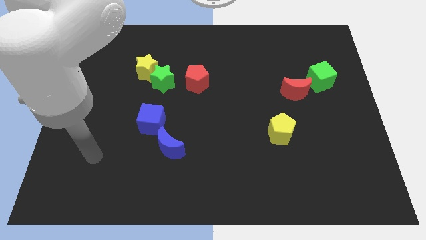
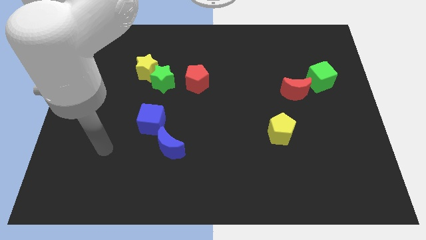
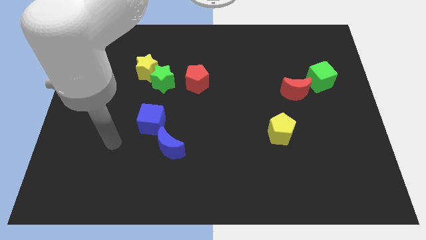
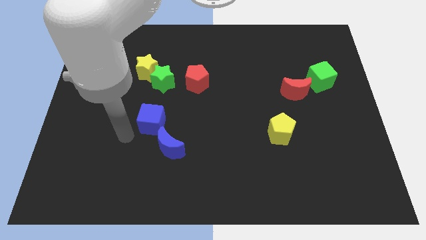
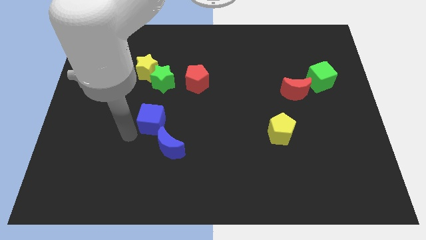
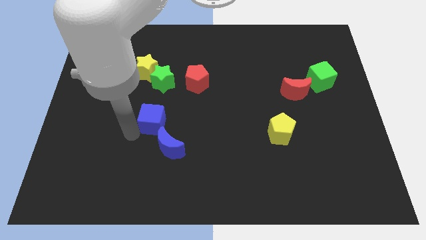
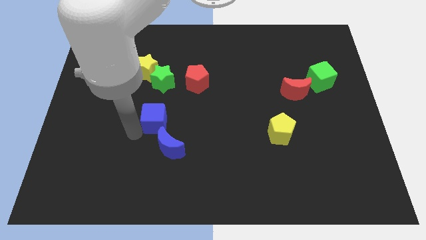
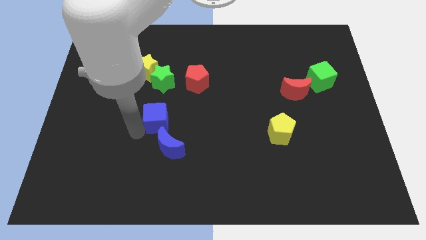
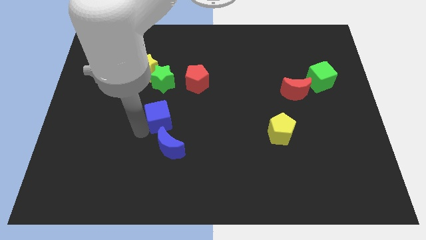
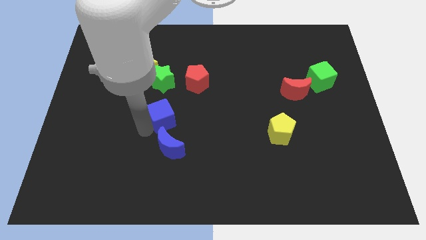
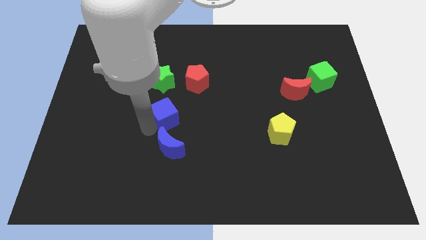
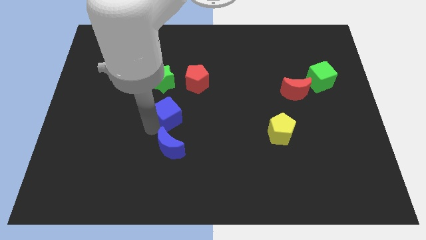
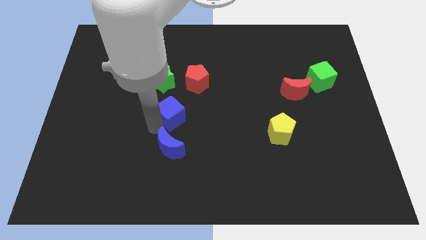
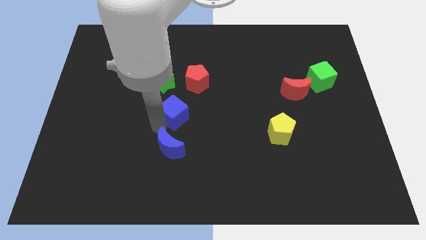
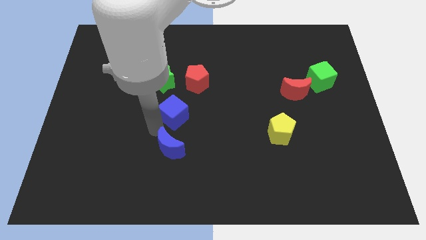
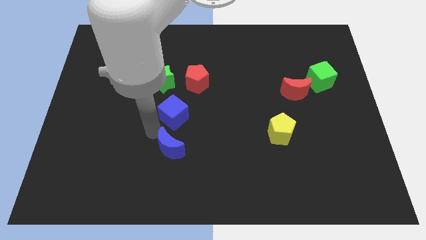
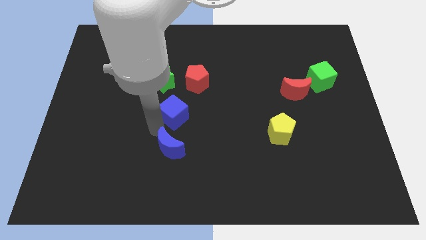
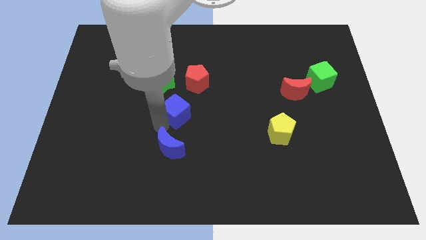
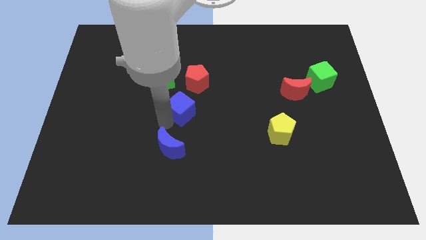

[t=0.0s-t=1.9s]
push the blue cube up and then right somewhat

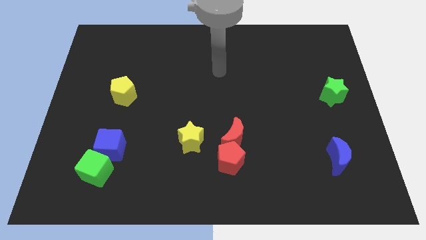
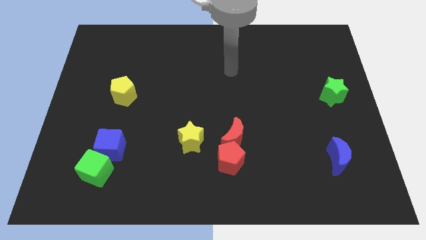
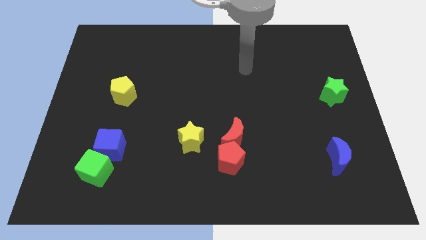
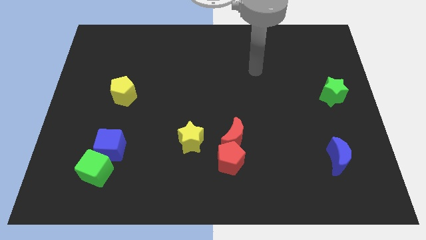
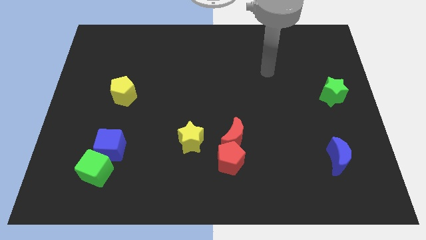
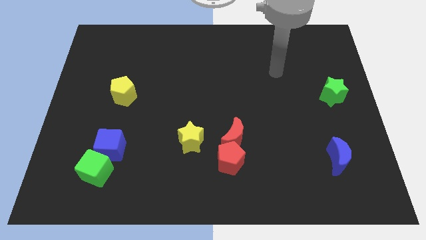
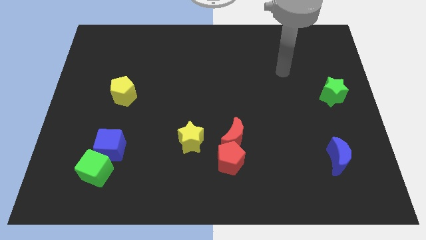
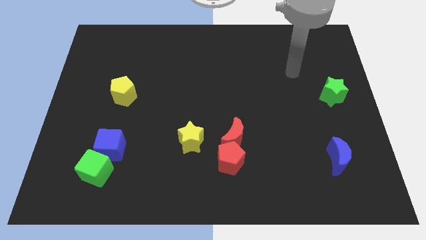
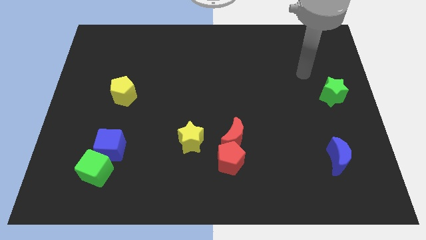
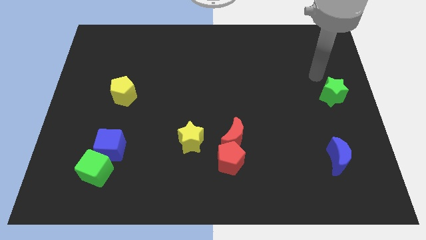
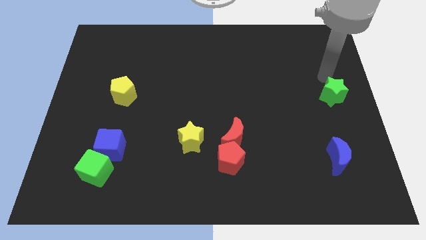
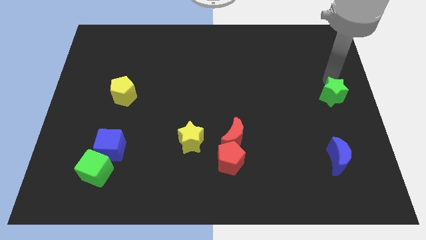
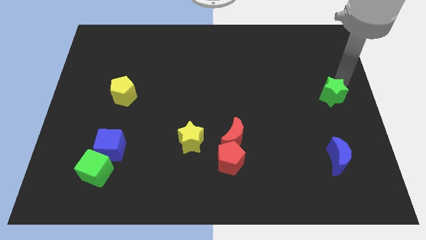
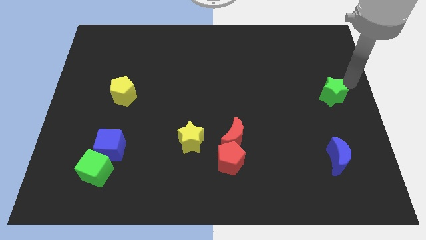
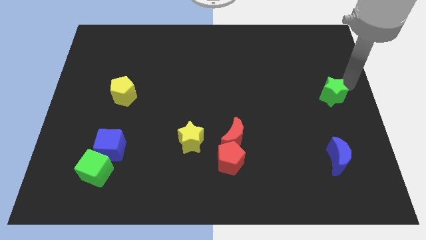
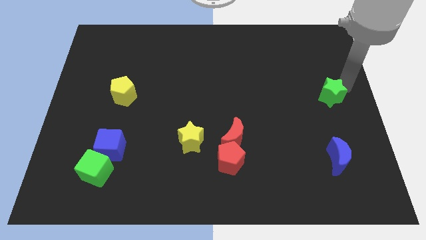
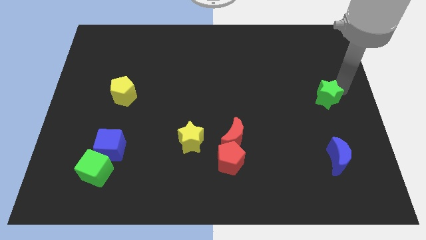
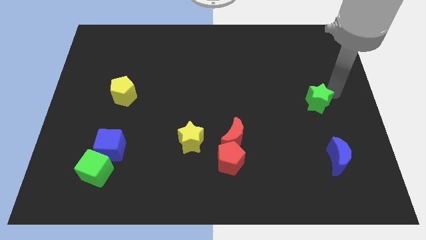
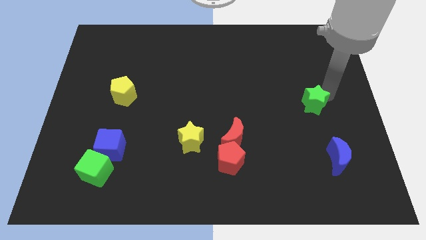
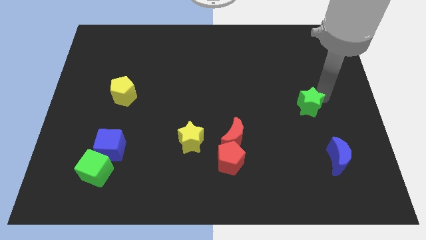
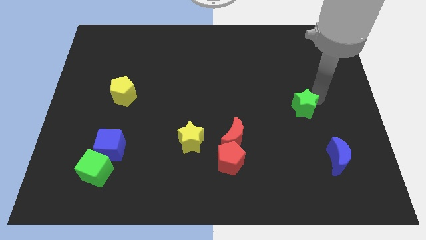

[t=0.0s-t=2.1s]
move the green star down and to the left a bit

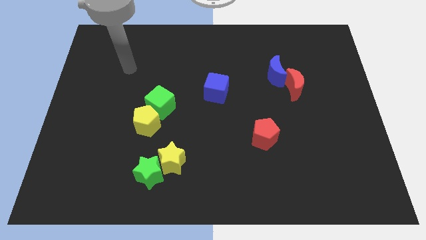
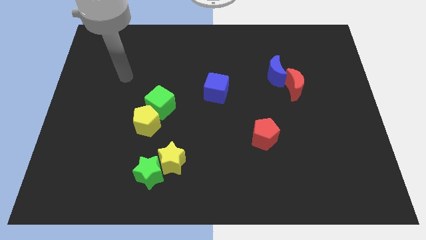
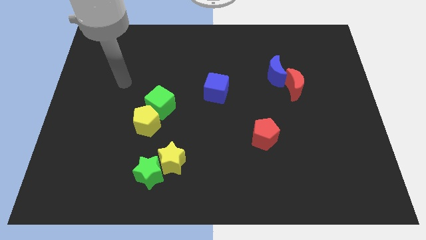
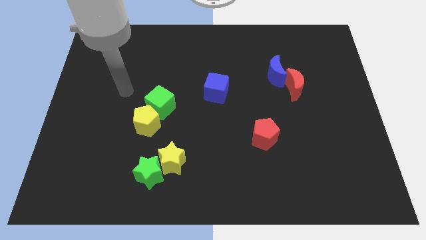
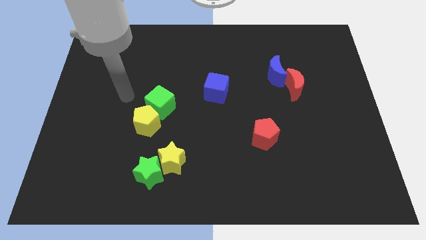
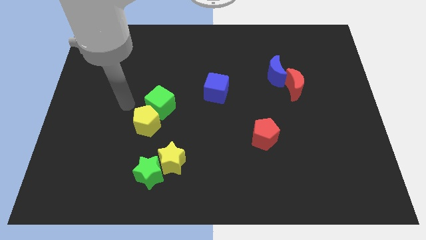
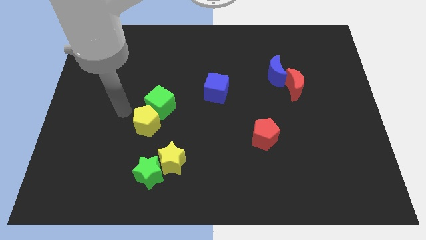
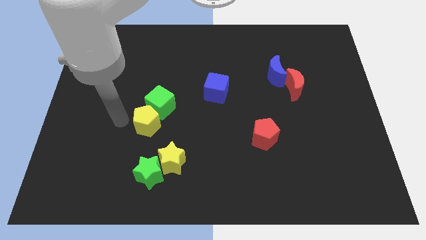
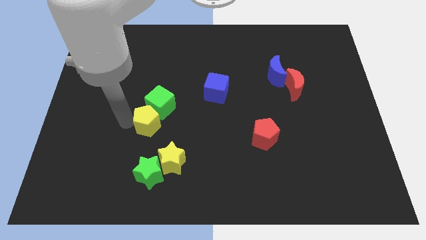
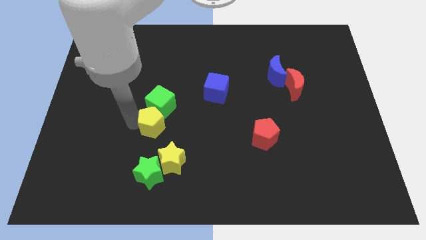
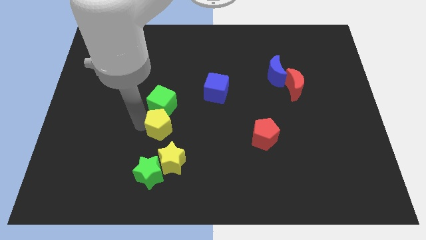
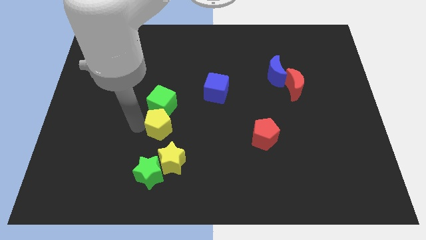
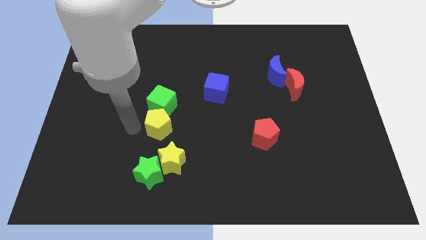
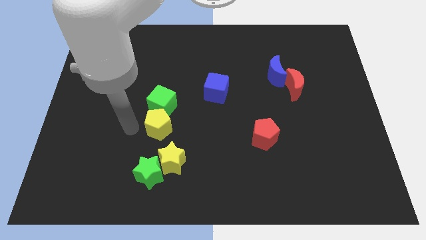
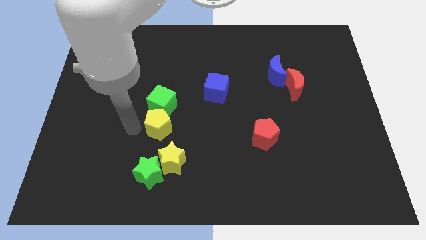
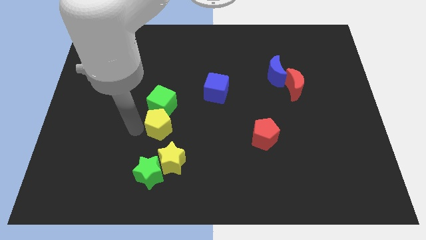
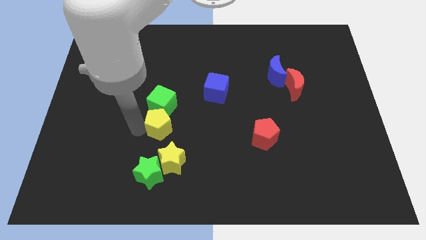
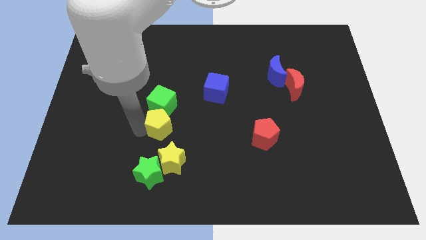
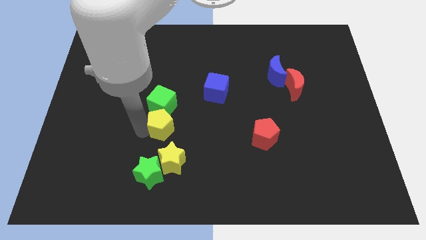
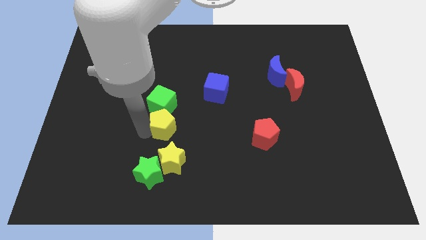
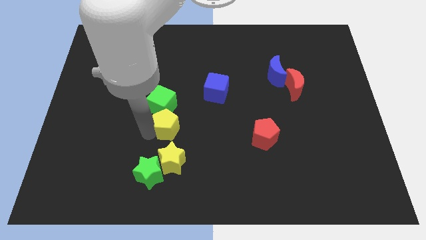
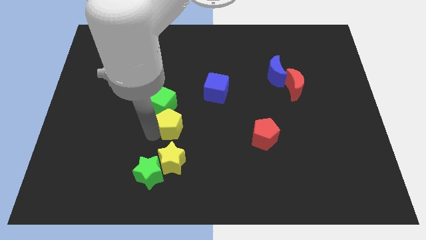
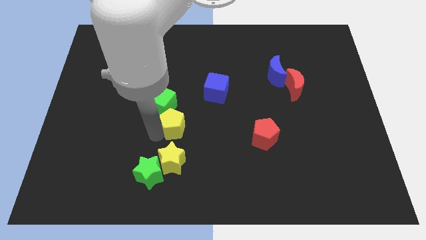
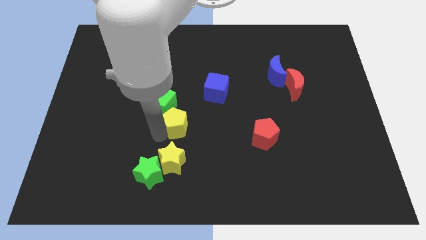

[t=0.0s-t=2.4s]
push the yellow pentagon to the right a little bit

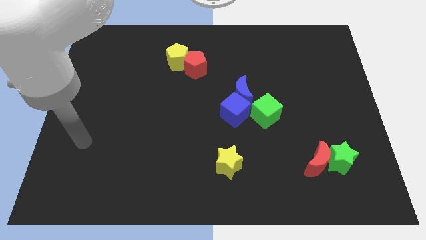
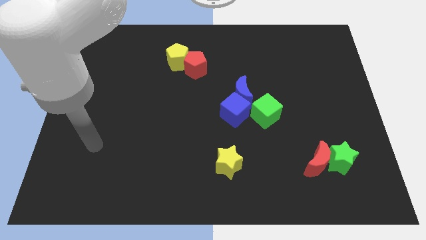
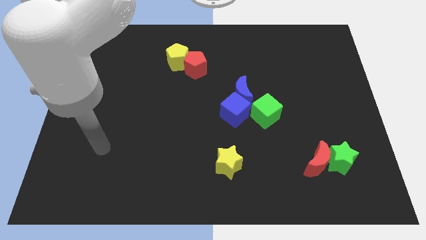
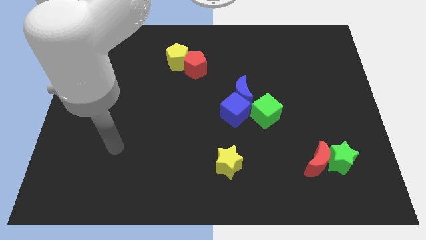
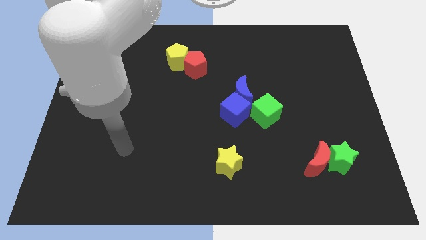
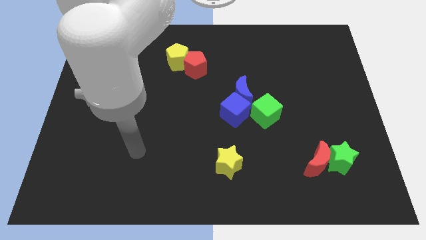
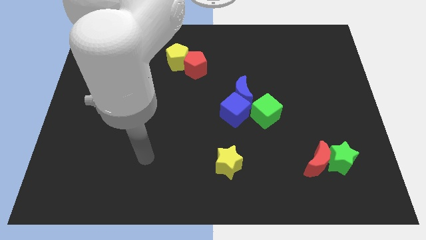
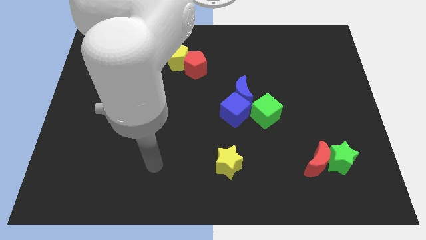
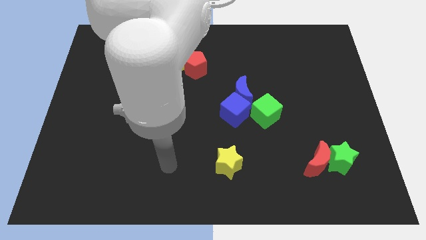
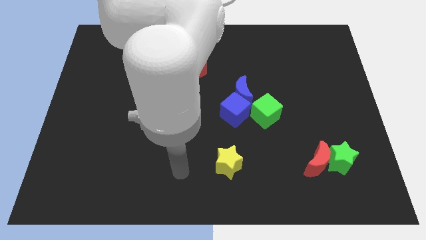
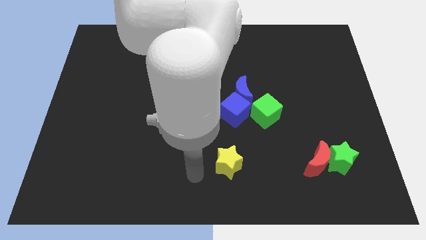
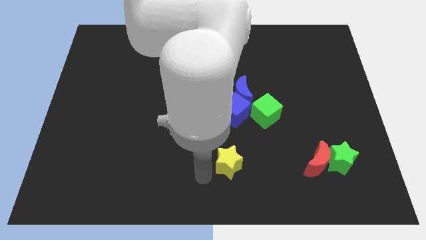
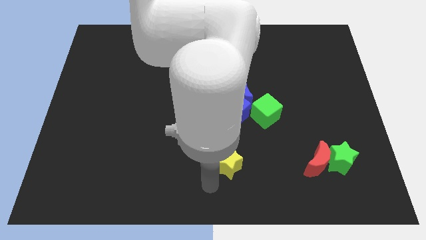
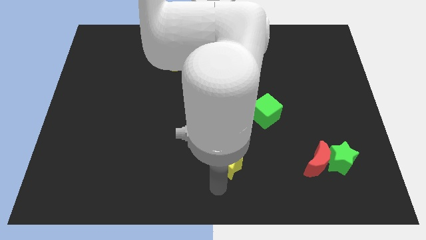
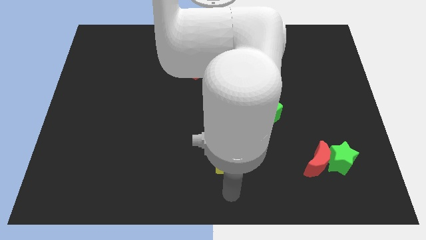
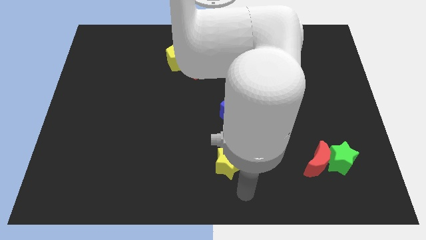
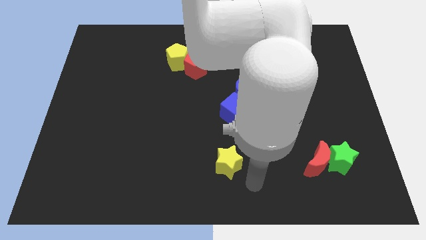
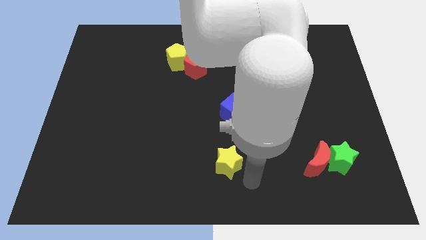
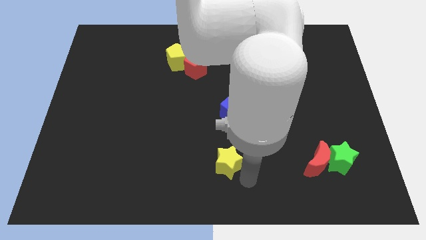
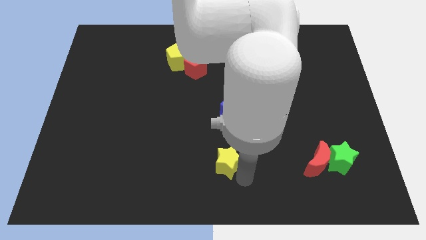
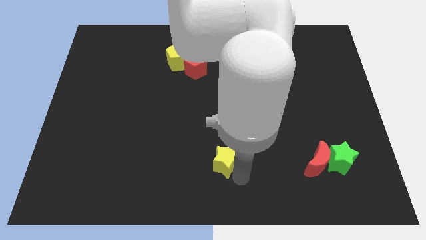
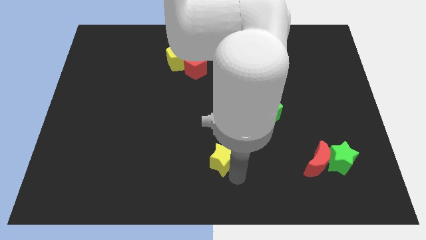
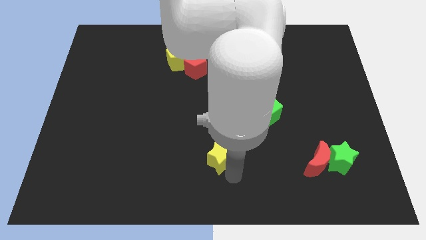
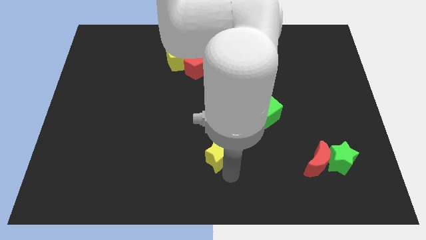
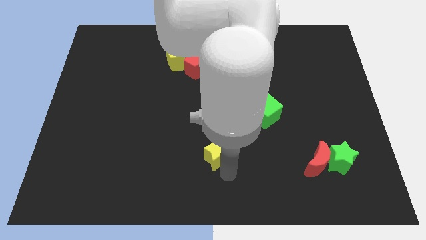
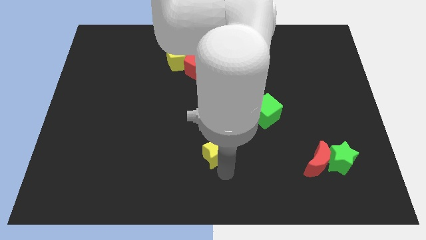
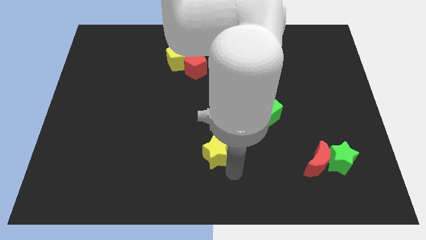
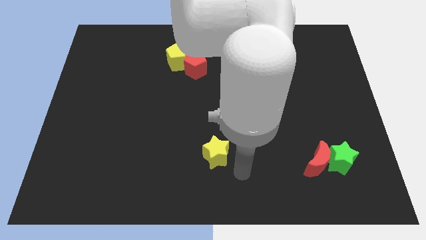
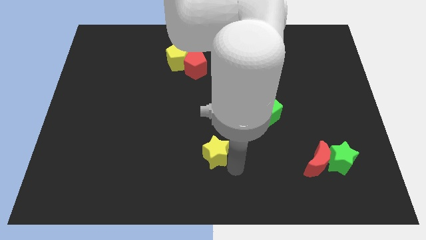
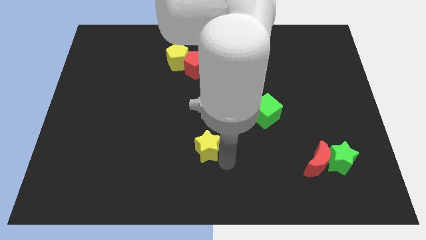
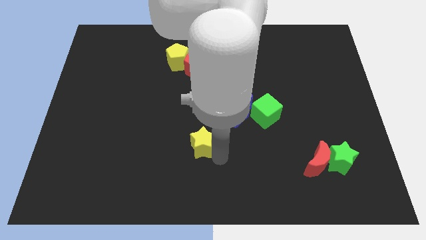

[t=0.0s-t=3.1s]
move the yellow star upwards and to the left a bit
